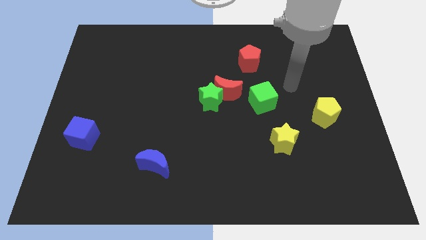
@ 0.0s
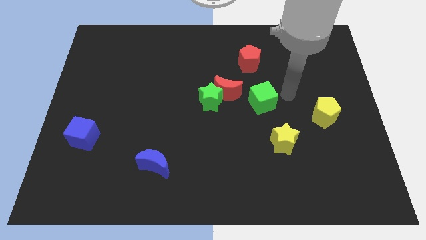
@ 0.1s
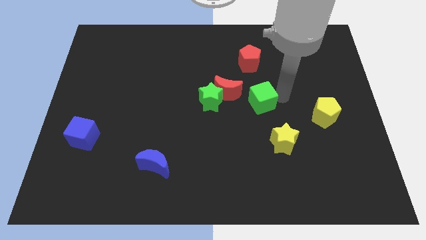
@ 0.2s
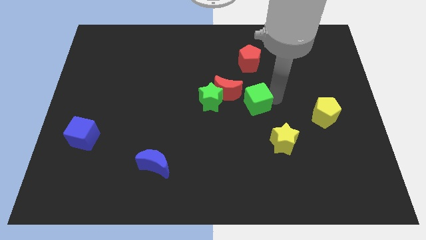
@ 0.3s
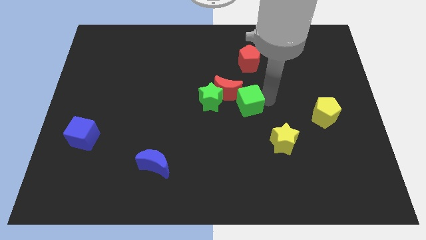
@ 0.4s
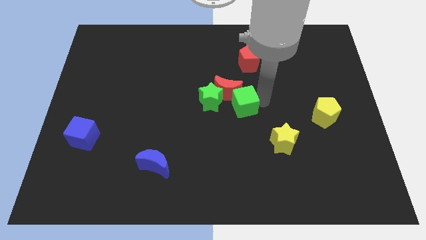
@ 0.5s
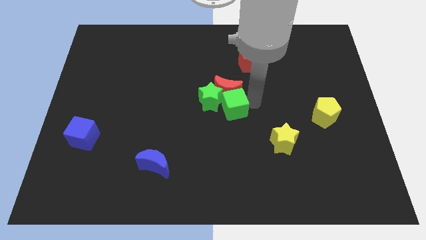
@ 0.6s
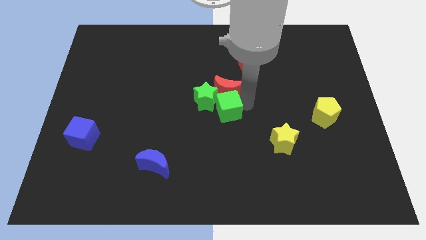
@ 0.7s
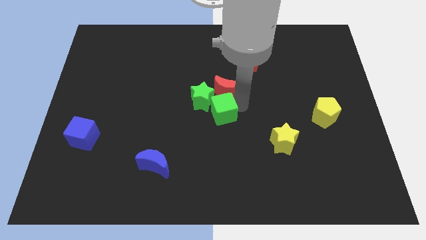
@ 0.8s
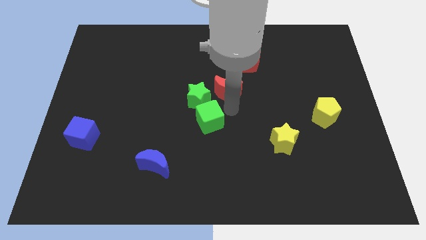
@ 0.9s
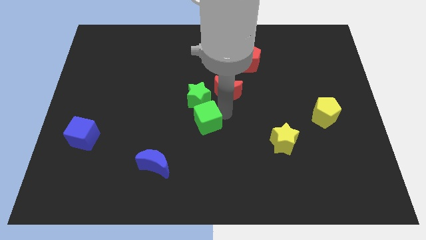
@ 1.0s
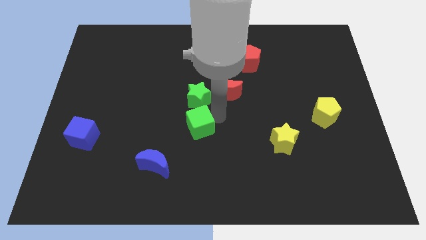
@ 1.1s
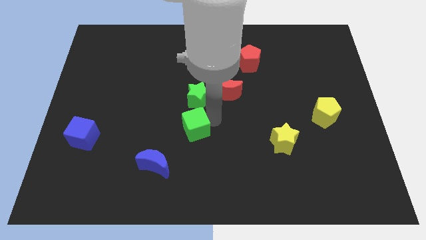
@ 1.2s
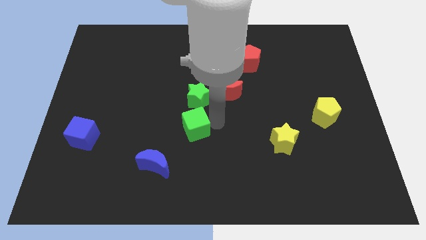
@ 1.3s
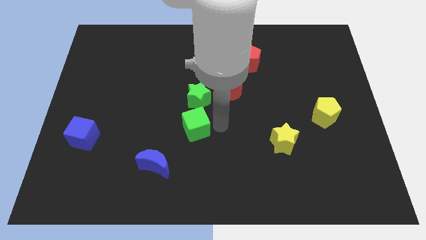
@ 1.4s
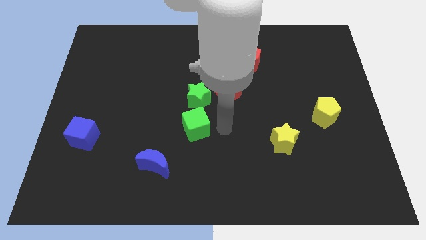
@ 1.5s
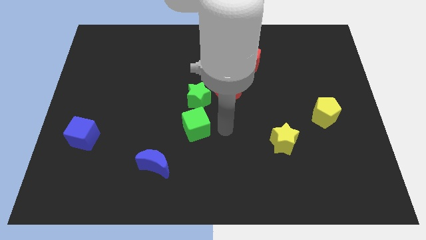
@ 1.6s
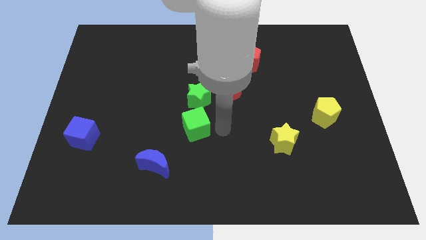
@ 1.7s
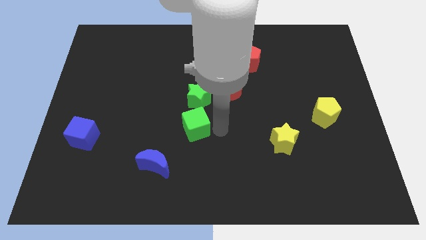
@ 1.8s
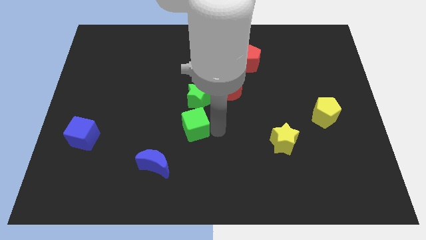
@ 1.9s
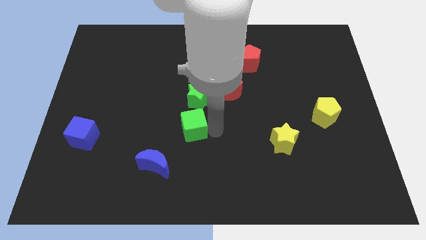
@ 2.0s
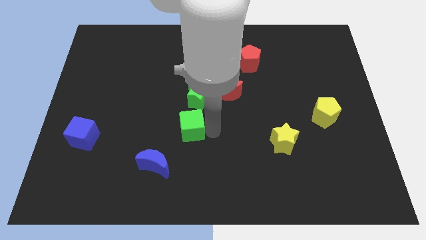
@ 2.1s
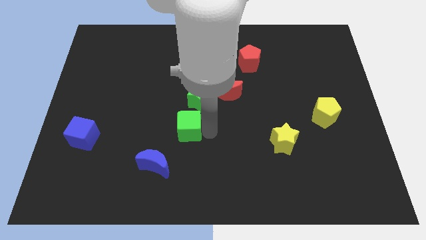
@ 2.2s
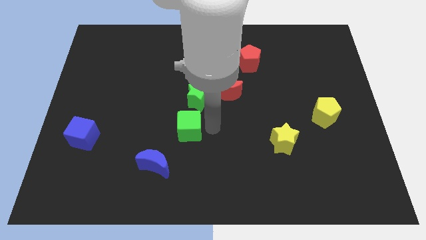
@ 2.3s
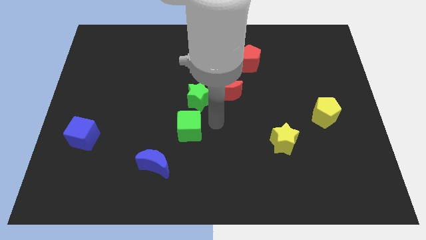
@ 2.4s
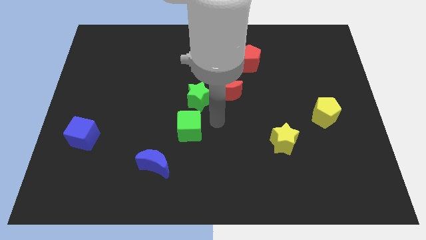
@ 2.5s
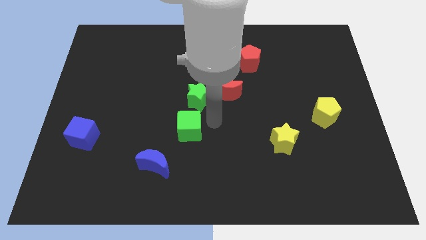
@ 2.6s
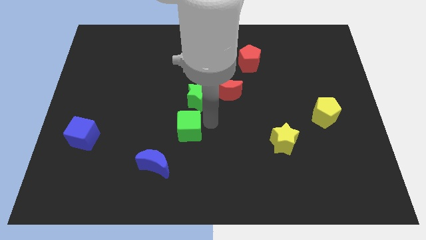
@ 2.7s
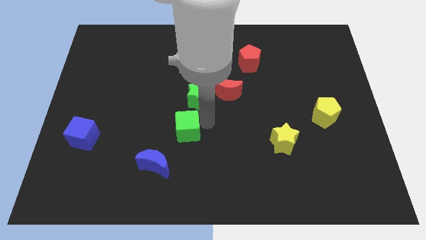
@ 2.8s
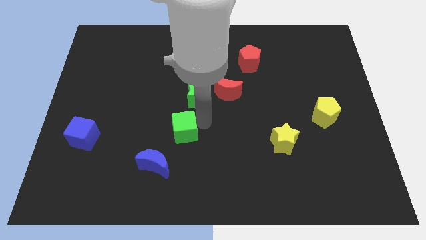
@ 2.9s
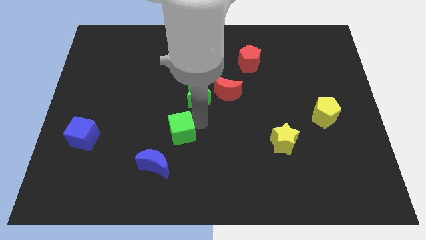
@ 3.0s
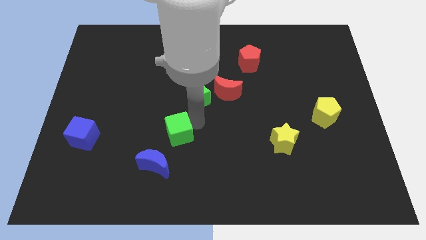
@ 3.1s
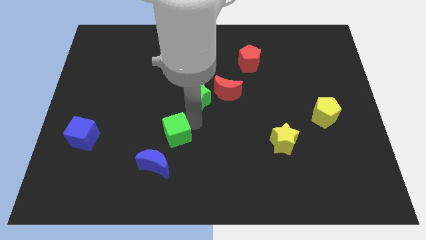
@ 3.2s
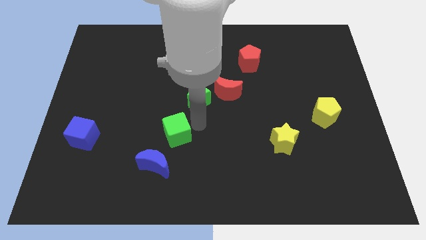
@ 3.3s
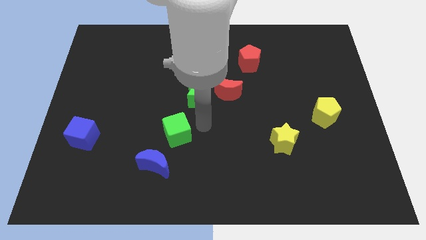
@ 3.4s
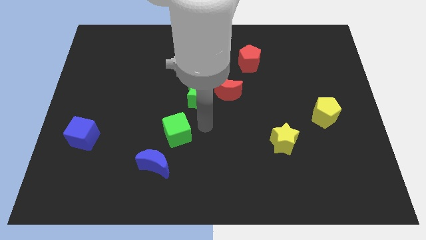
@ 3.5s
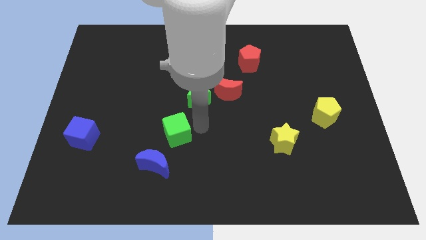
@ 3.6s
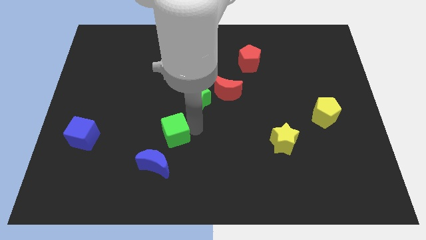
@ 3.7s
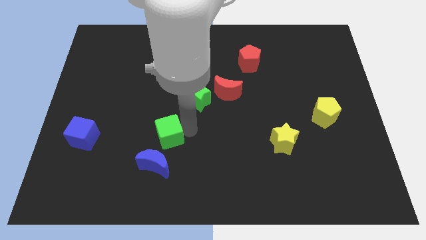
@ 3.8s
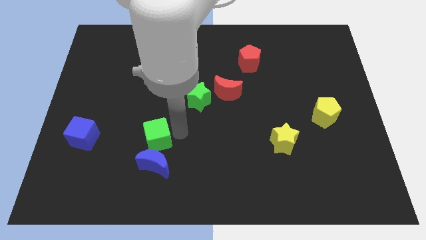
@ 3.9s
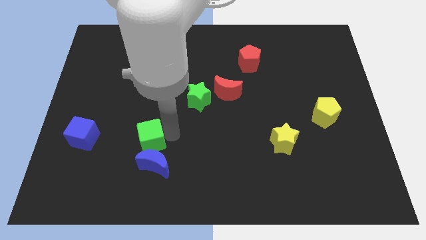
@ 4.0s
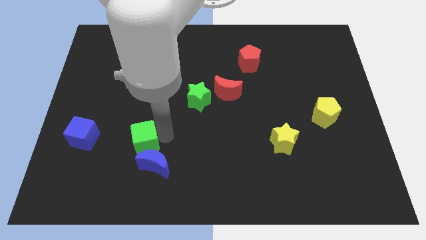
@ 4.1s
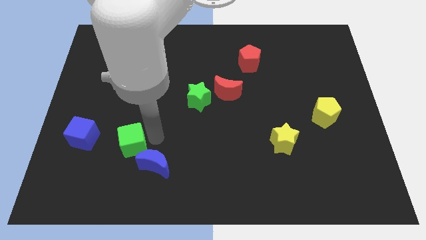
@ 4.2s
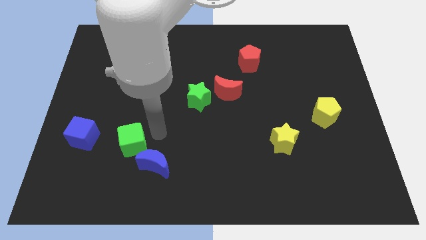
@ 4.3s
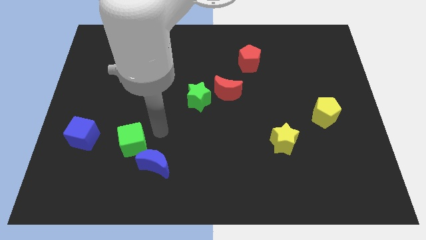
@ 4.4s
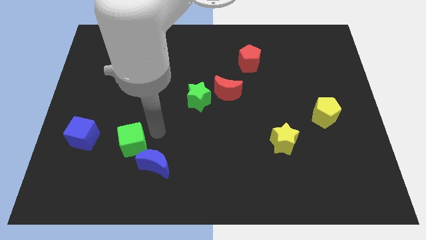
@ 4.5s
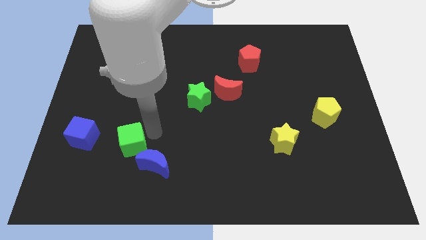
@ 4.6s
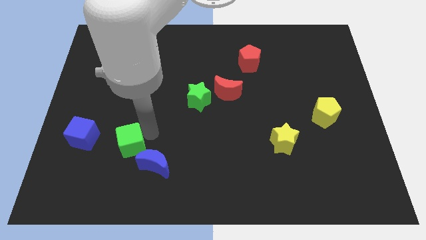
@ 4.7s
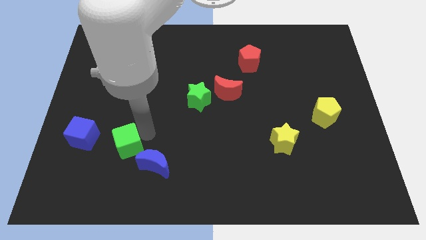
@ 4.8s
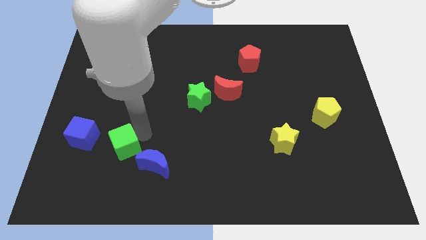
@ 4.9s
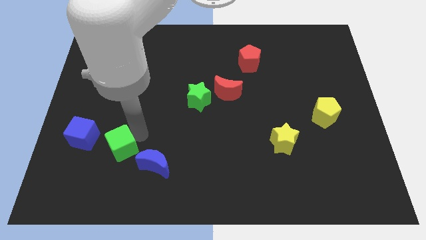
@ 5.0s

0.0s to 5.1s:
move the green cube to the bottom right side of the blue cube

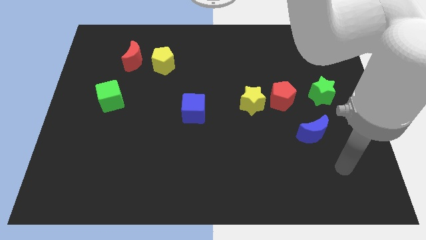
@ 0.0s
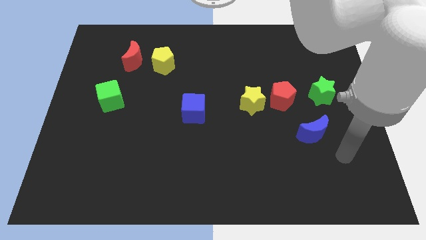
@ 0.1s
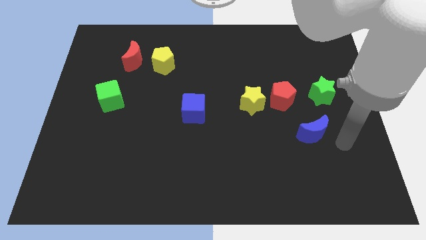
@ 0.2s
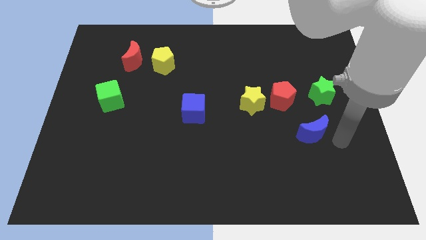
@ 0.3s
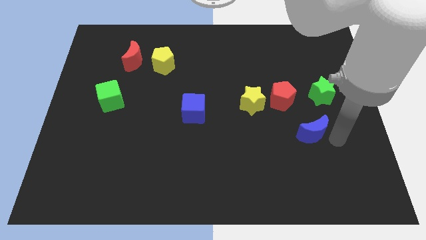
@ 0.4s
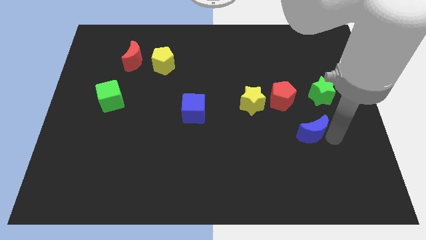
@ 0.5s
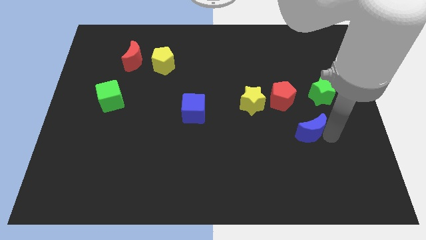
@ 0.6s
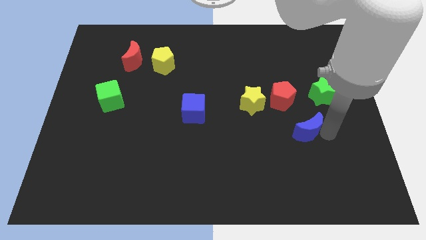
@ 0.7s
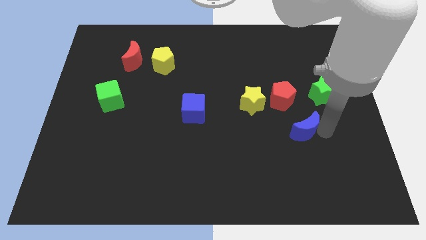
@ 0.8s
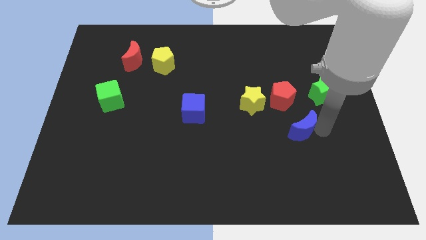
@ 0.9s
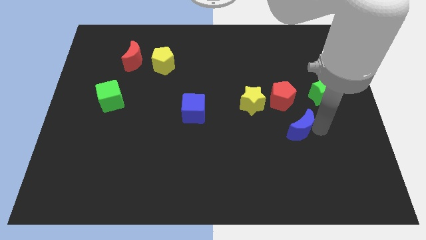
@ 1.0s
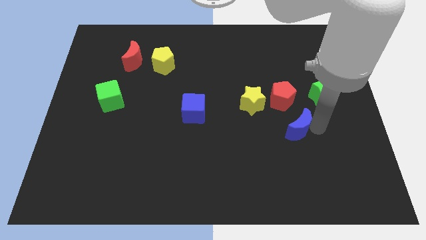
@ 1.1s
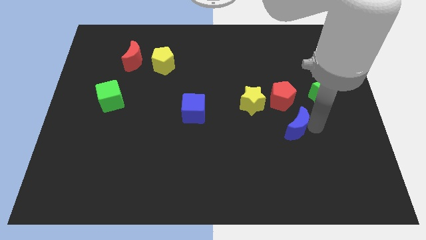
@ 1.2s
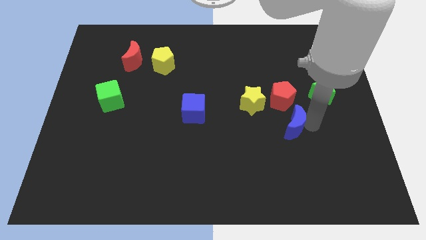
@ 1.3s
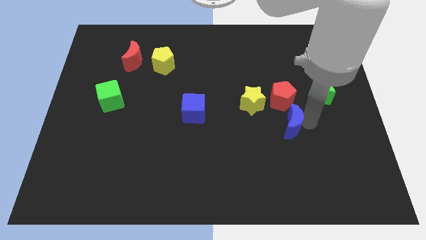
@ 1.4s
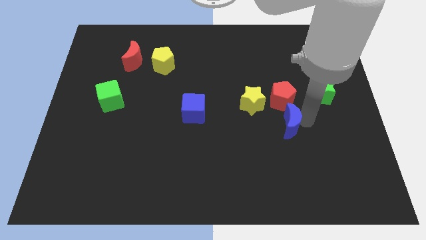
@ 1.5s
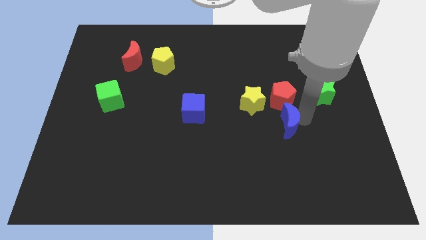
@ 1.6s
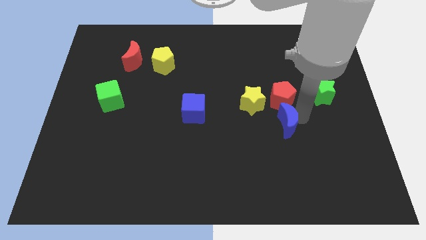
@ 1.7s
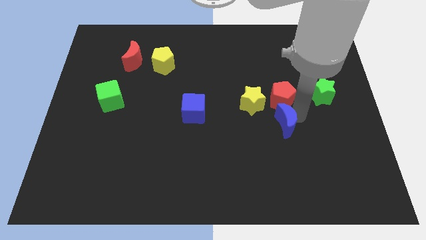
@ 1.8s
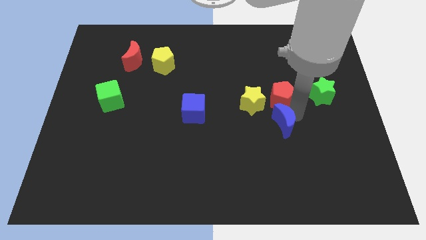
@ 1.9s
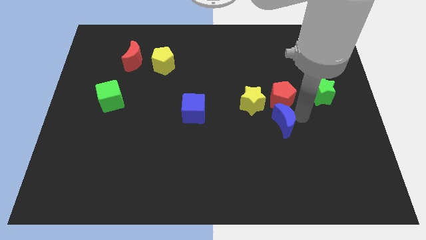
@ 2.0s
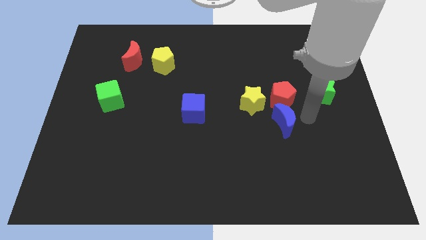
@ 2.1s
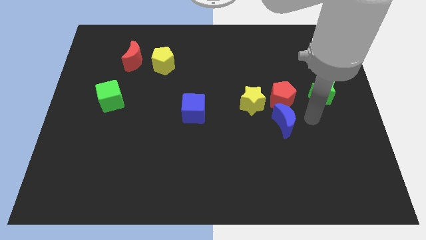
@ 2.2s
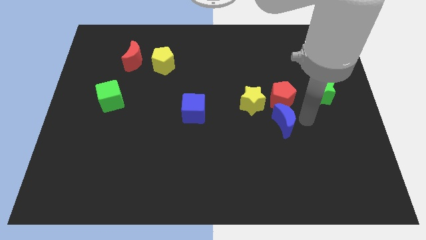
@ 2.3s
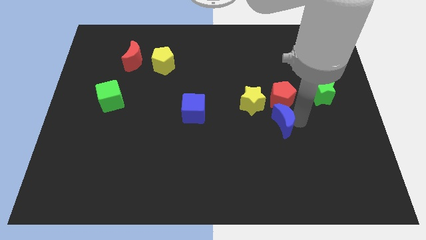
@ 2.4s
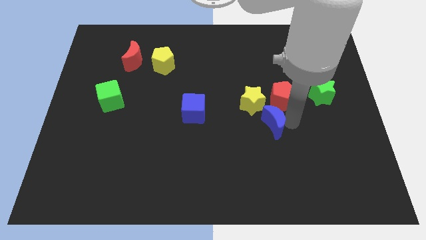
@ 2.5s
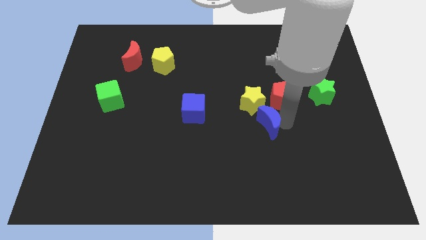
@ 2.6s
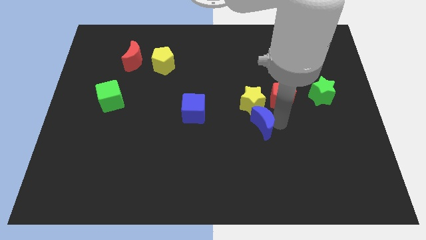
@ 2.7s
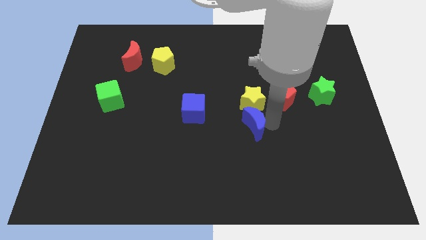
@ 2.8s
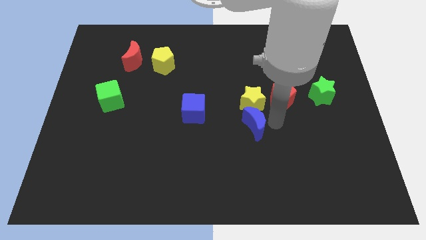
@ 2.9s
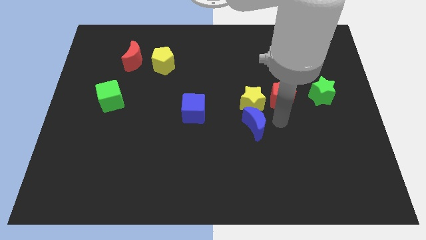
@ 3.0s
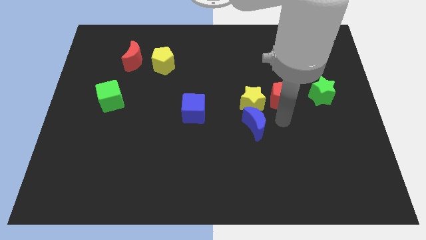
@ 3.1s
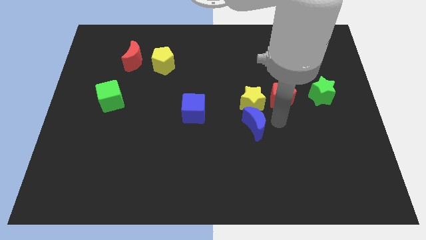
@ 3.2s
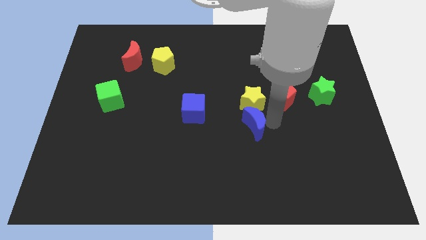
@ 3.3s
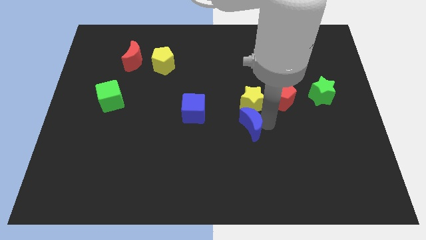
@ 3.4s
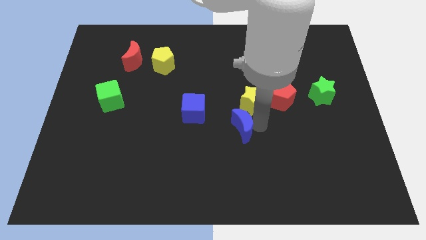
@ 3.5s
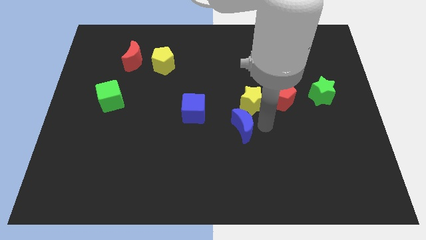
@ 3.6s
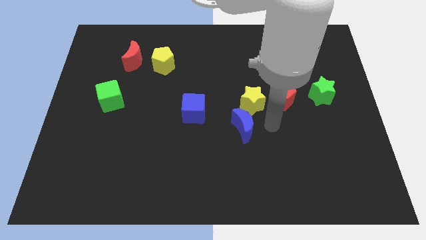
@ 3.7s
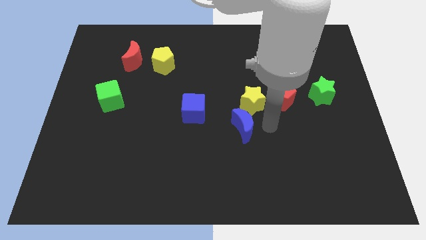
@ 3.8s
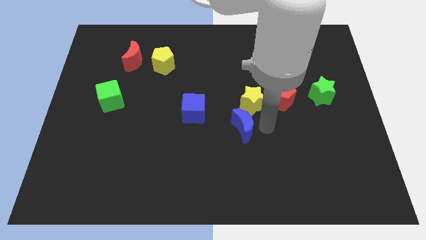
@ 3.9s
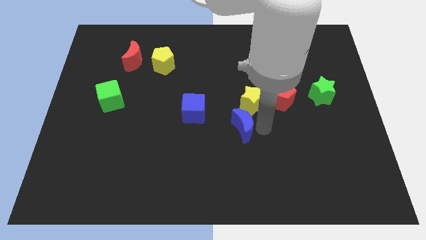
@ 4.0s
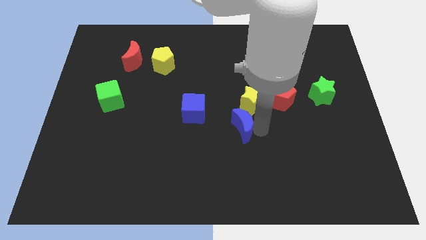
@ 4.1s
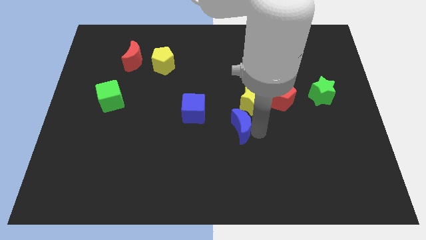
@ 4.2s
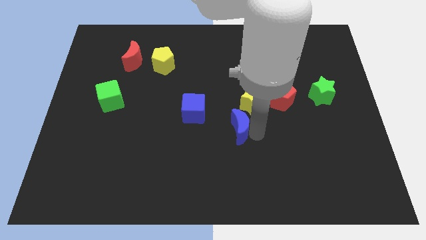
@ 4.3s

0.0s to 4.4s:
move the blue moon diagonally down and to the right of the blue cube
